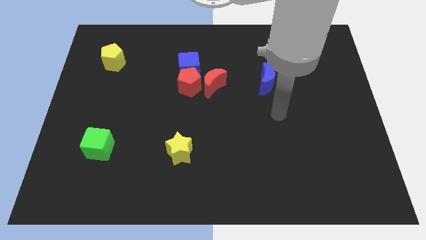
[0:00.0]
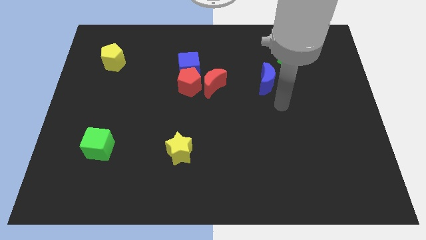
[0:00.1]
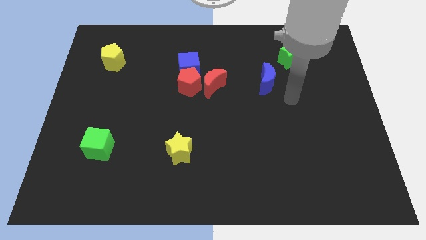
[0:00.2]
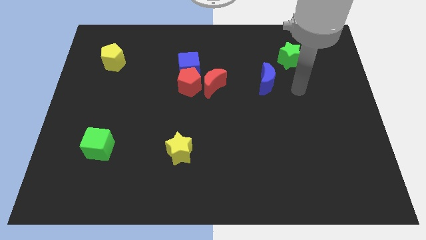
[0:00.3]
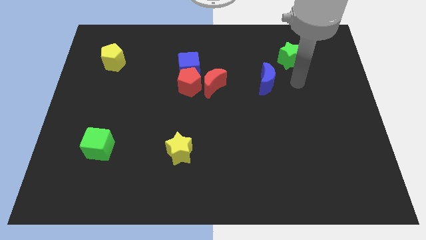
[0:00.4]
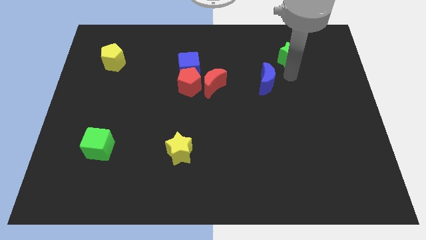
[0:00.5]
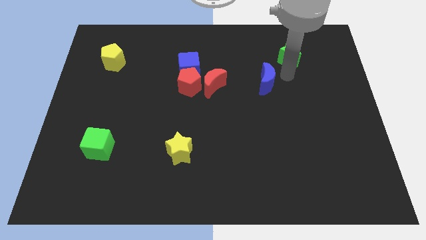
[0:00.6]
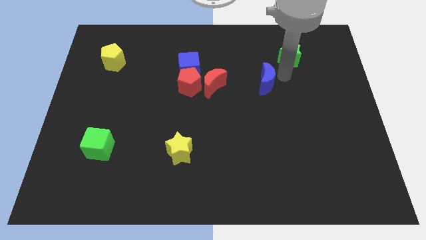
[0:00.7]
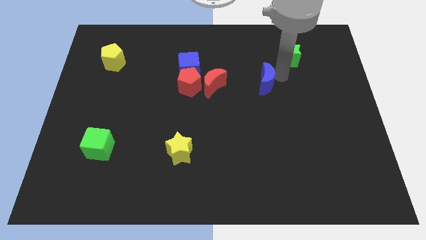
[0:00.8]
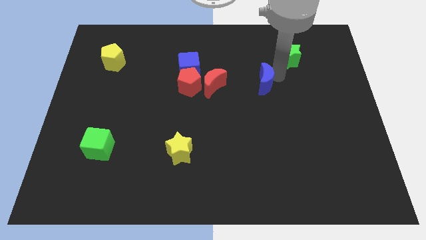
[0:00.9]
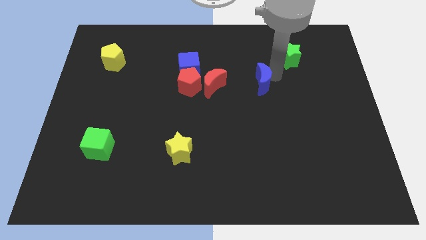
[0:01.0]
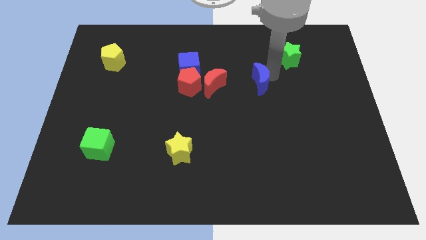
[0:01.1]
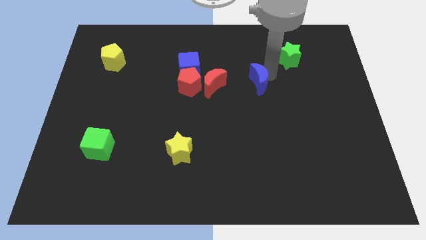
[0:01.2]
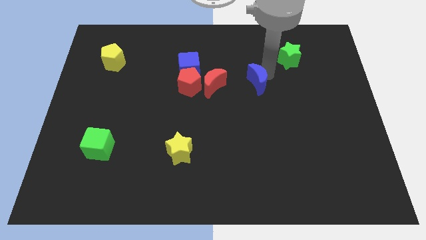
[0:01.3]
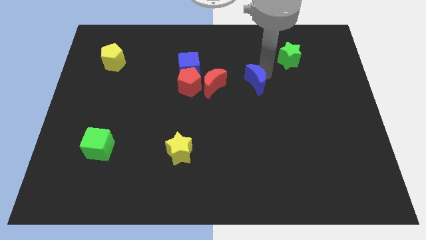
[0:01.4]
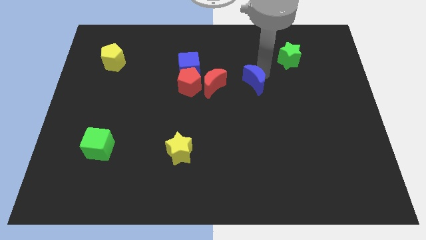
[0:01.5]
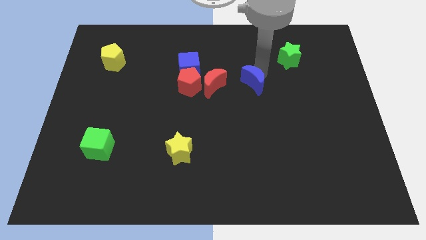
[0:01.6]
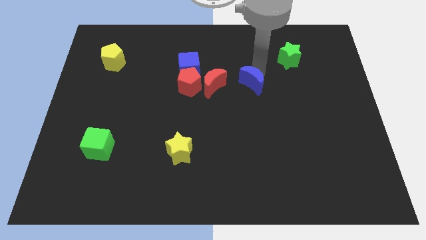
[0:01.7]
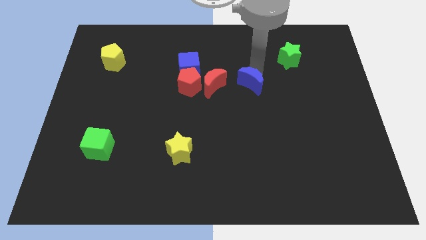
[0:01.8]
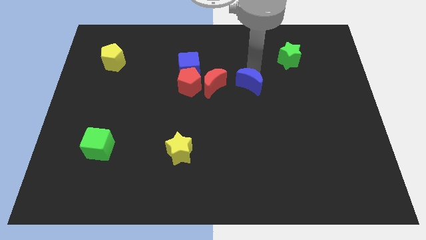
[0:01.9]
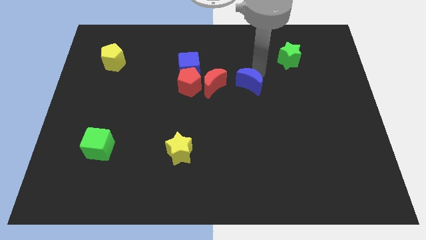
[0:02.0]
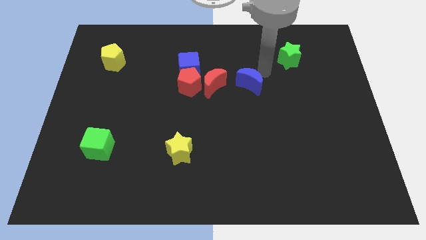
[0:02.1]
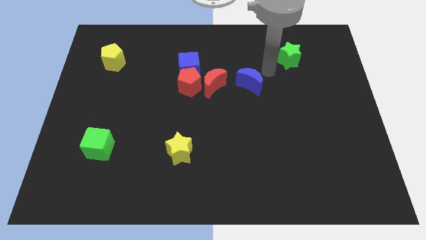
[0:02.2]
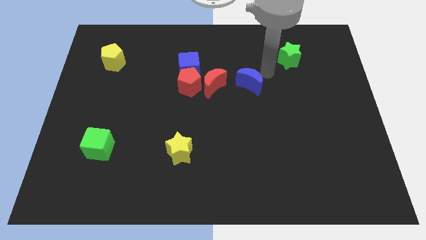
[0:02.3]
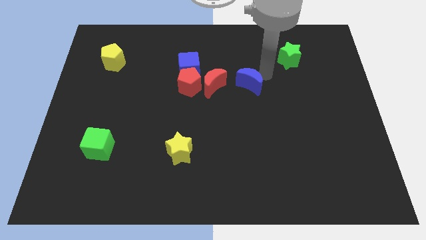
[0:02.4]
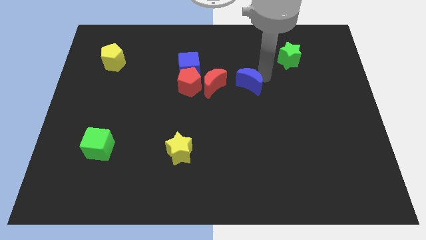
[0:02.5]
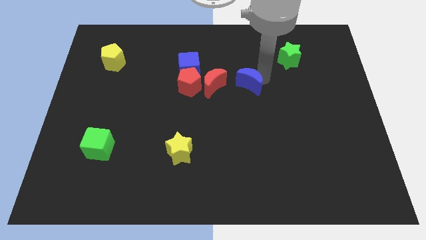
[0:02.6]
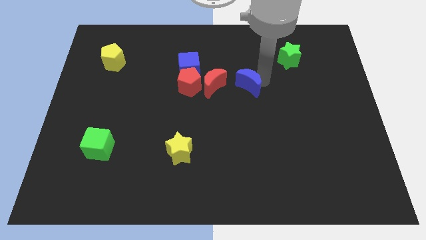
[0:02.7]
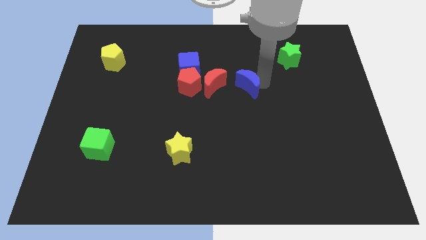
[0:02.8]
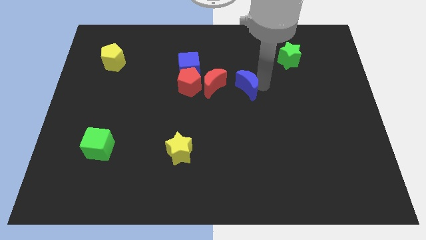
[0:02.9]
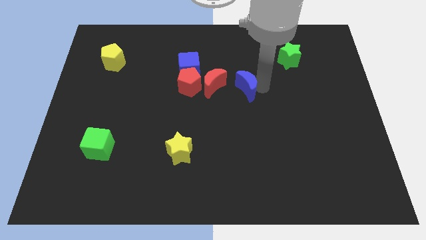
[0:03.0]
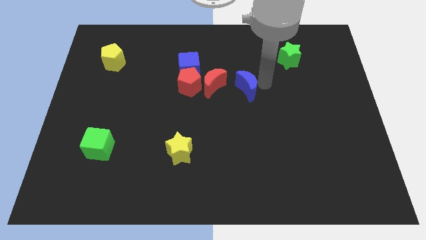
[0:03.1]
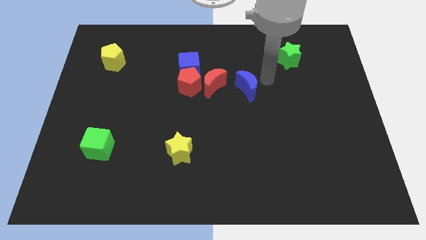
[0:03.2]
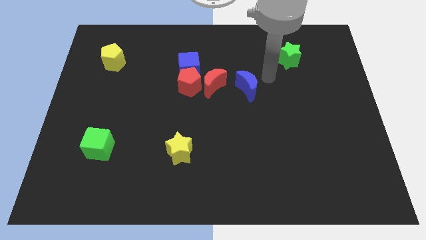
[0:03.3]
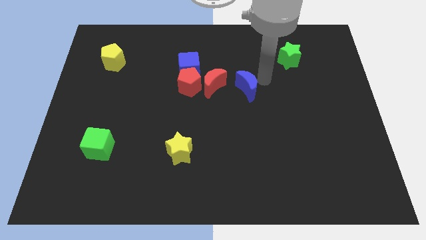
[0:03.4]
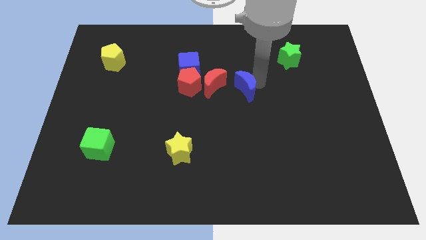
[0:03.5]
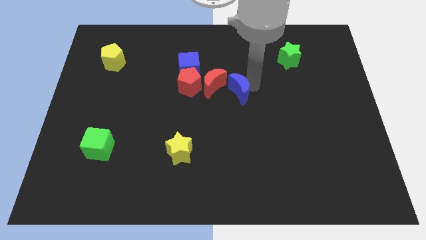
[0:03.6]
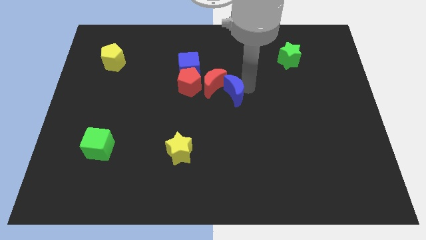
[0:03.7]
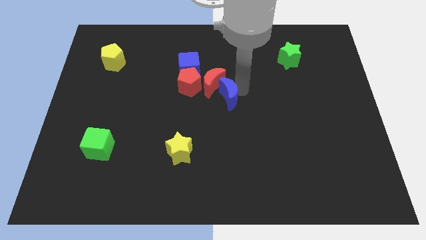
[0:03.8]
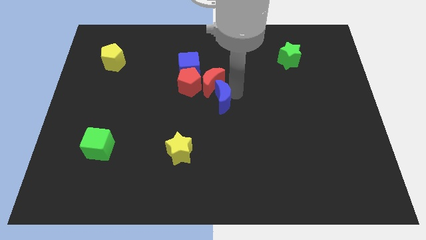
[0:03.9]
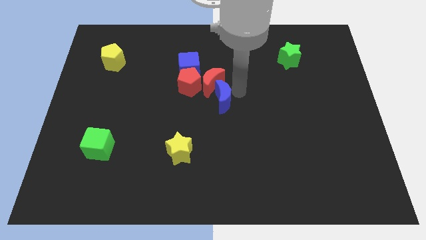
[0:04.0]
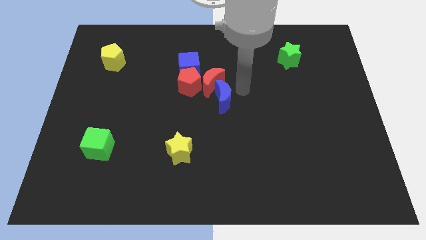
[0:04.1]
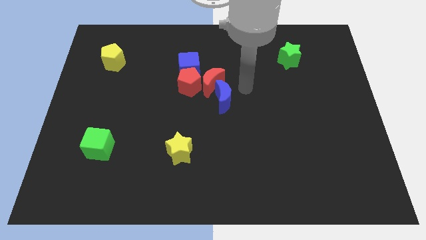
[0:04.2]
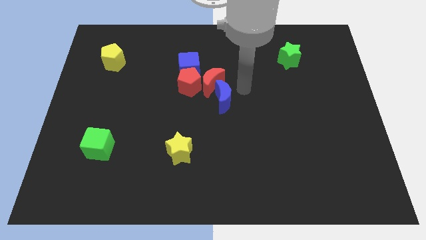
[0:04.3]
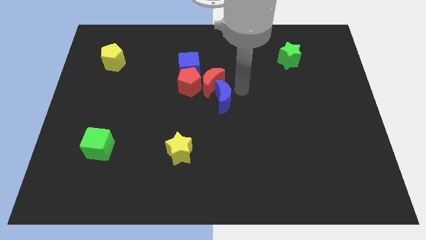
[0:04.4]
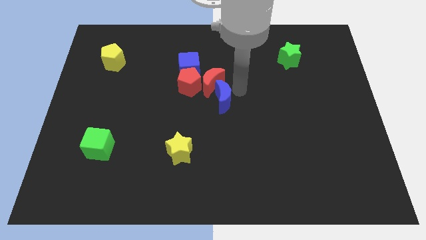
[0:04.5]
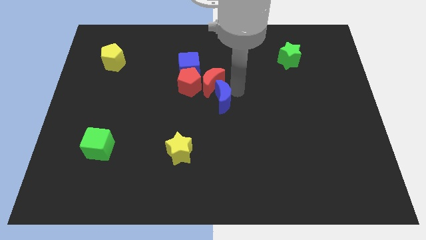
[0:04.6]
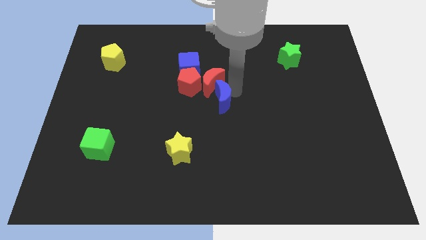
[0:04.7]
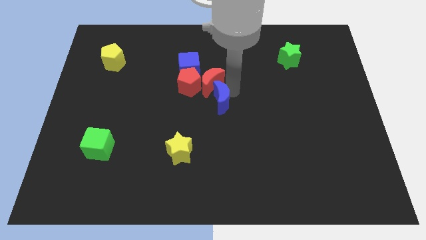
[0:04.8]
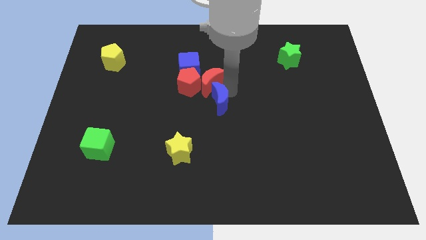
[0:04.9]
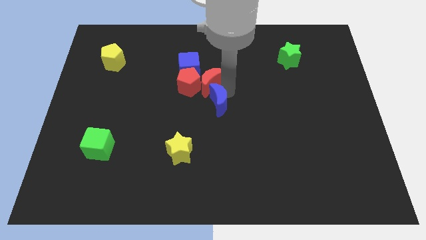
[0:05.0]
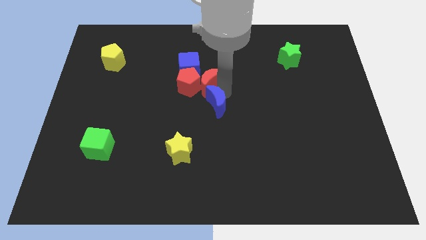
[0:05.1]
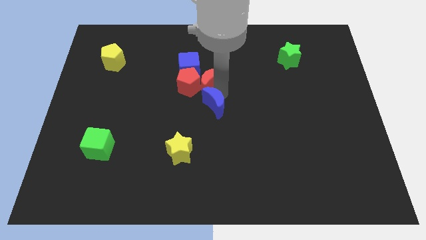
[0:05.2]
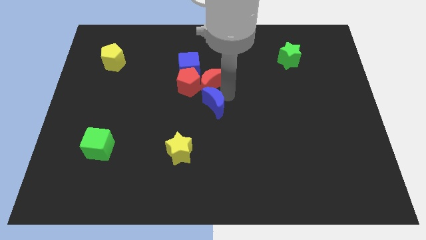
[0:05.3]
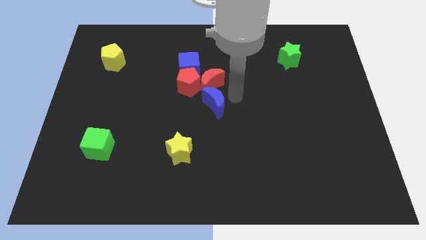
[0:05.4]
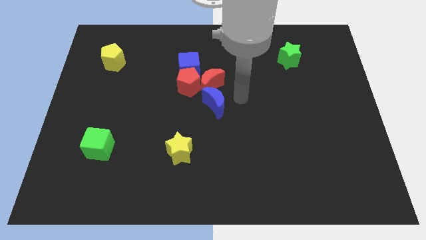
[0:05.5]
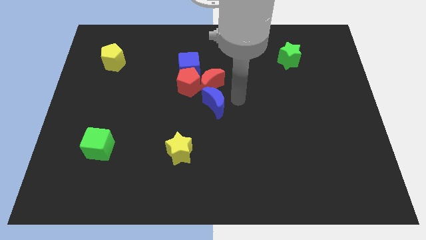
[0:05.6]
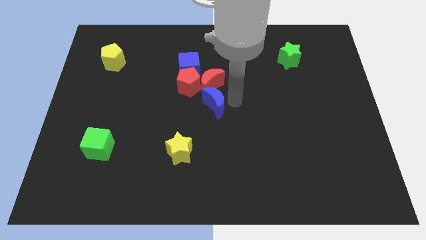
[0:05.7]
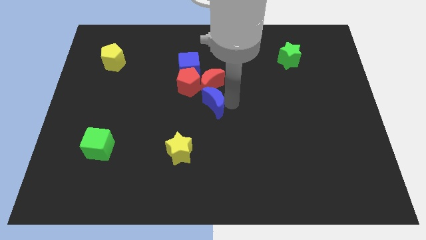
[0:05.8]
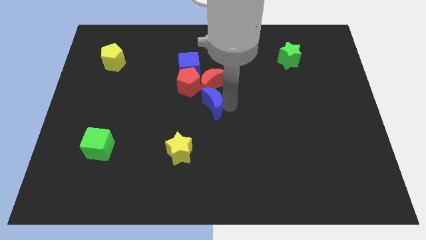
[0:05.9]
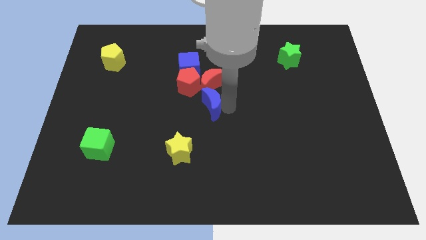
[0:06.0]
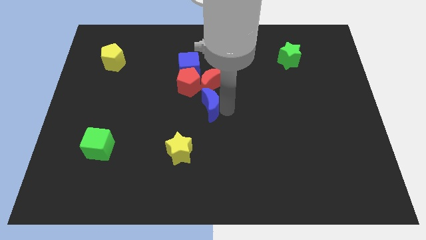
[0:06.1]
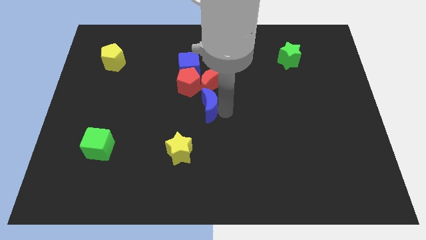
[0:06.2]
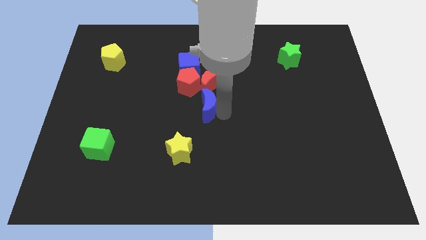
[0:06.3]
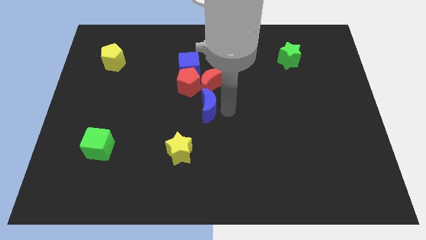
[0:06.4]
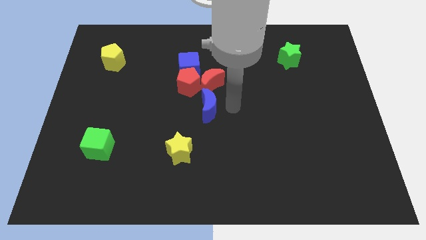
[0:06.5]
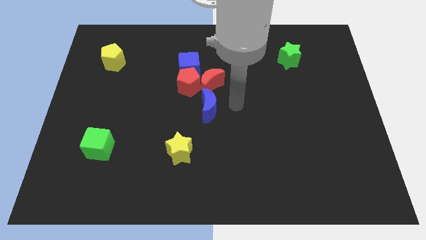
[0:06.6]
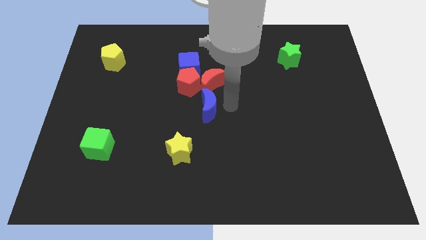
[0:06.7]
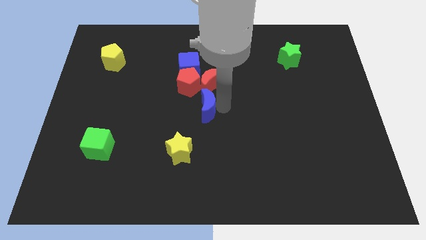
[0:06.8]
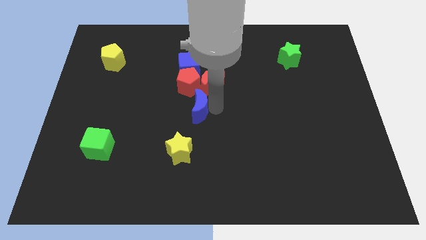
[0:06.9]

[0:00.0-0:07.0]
move the blue moon to the top of the yellow star
